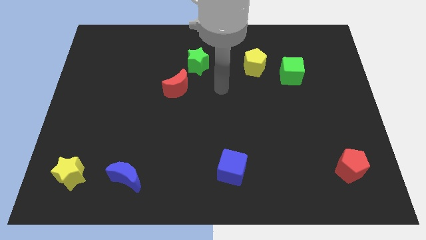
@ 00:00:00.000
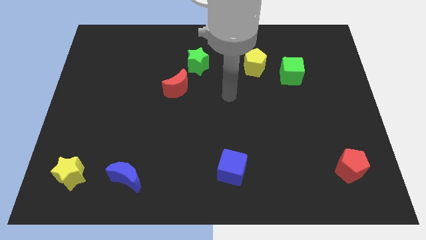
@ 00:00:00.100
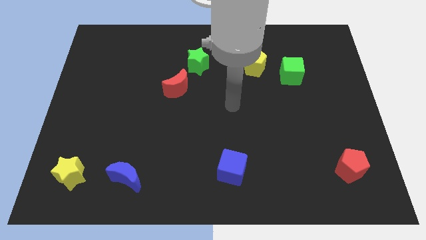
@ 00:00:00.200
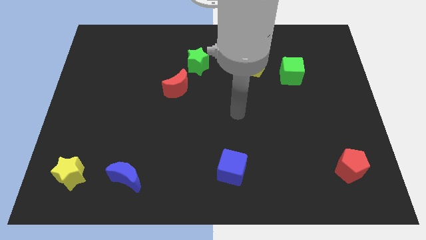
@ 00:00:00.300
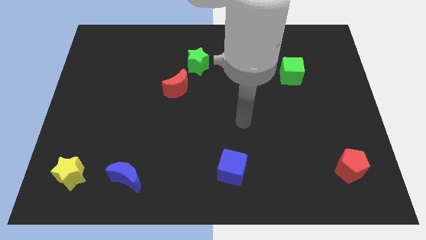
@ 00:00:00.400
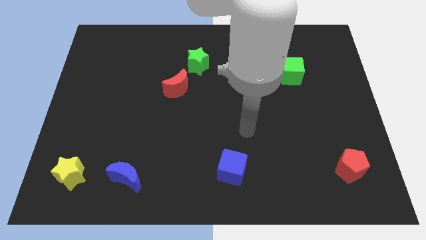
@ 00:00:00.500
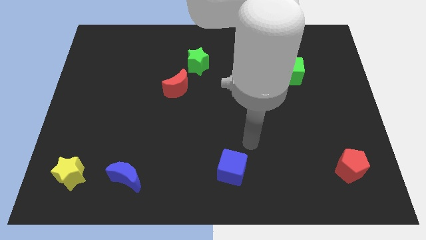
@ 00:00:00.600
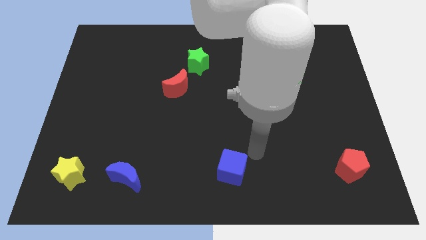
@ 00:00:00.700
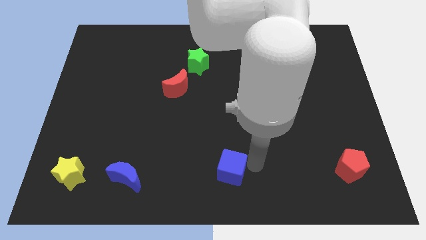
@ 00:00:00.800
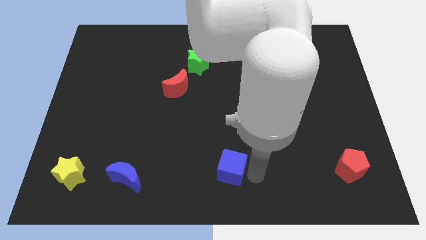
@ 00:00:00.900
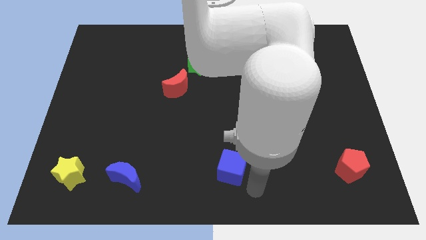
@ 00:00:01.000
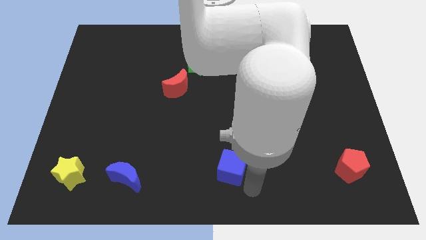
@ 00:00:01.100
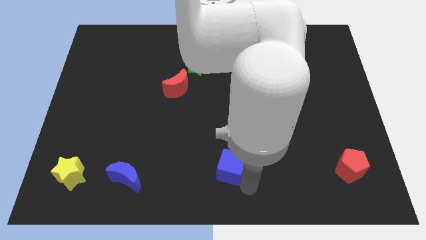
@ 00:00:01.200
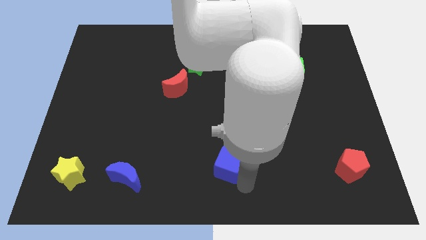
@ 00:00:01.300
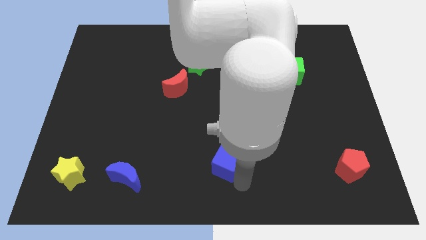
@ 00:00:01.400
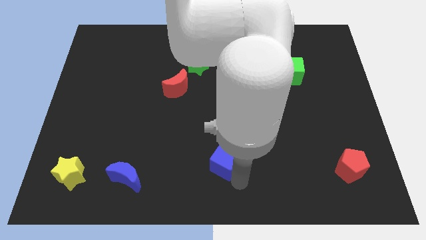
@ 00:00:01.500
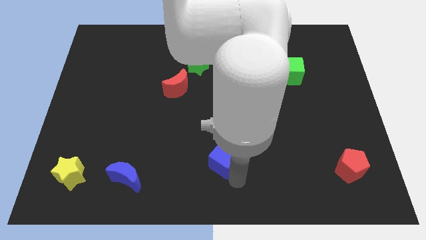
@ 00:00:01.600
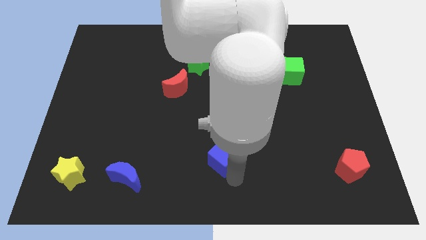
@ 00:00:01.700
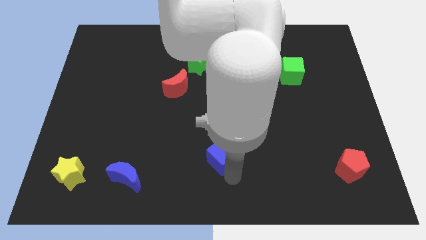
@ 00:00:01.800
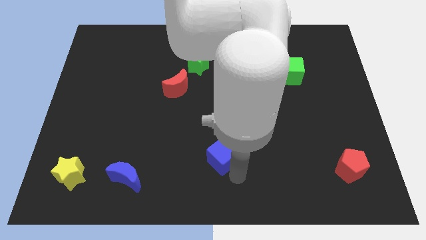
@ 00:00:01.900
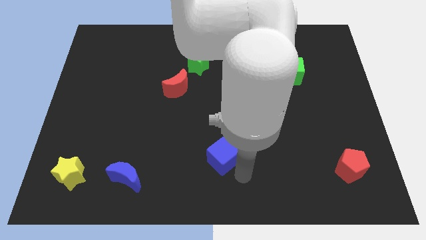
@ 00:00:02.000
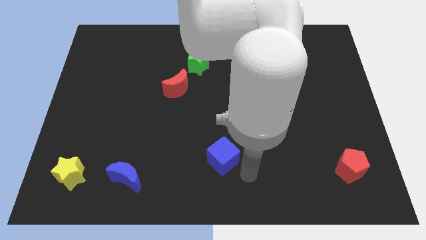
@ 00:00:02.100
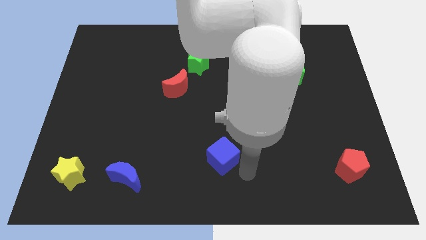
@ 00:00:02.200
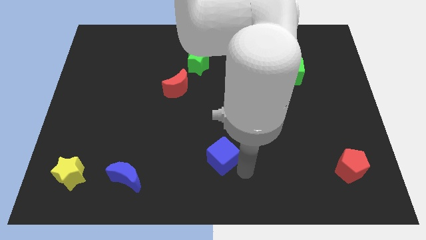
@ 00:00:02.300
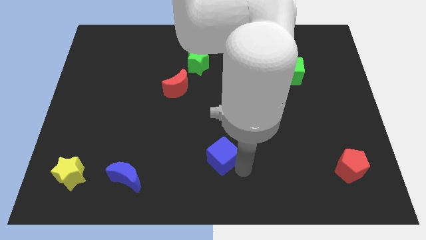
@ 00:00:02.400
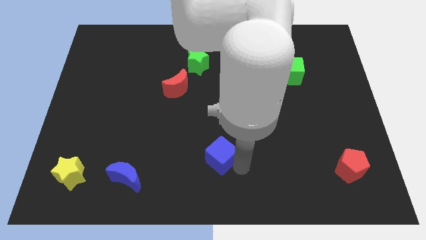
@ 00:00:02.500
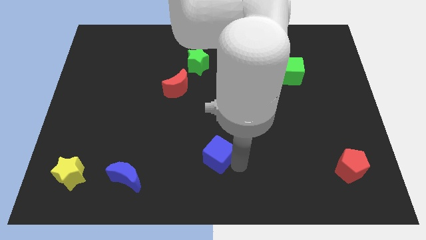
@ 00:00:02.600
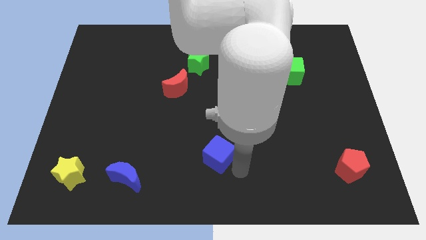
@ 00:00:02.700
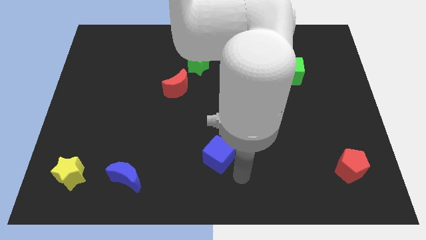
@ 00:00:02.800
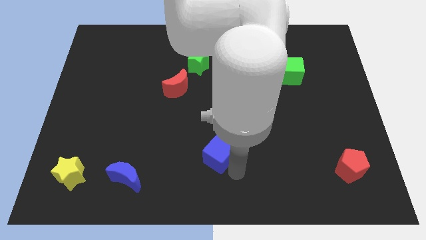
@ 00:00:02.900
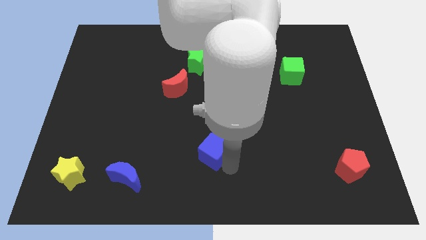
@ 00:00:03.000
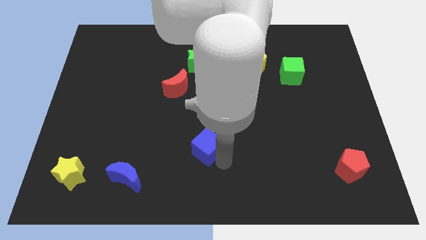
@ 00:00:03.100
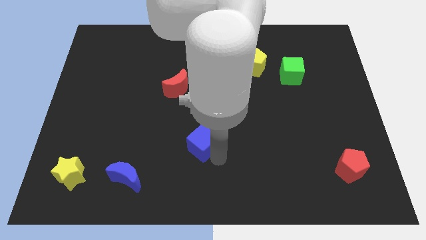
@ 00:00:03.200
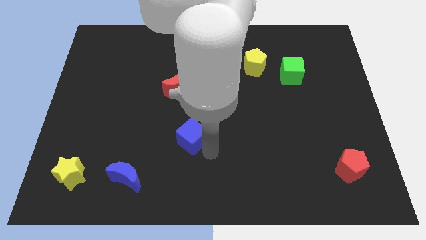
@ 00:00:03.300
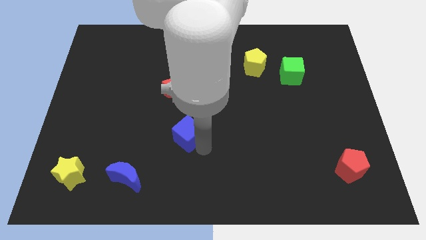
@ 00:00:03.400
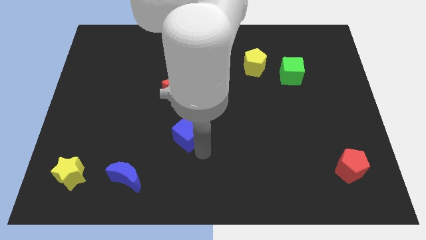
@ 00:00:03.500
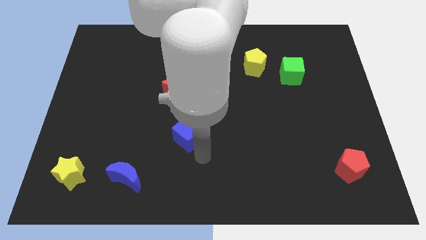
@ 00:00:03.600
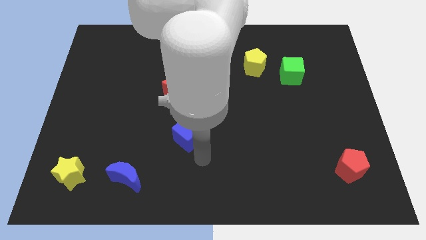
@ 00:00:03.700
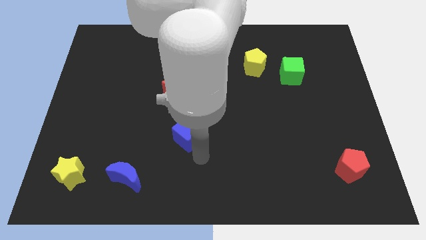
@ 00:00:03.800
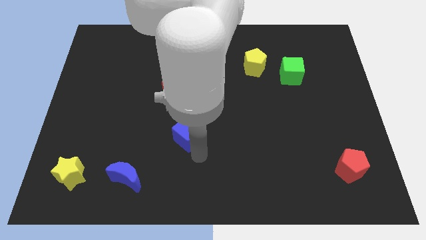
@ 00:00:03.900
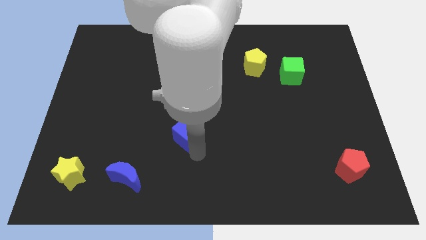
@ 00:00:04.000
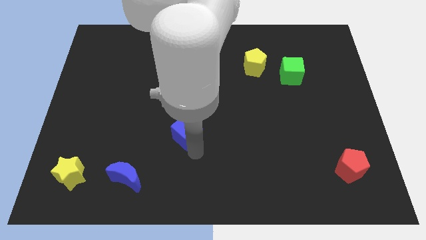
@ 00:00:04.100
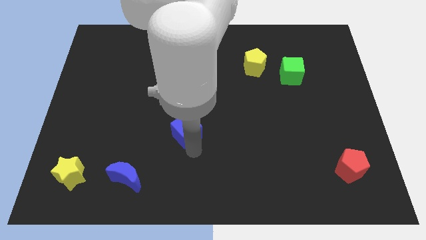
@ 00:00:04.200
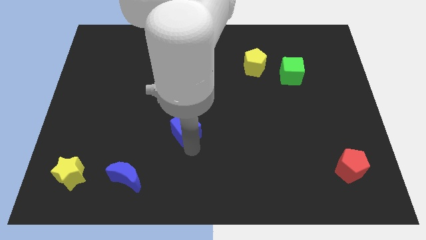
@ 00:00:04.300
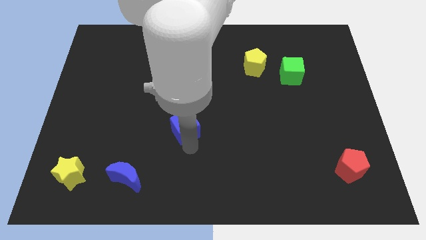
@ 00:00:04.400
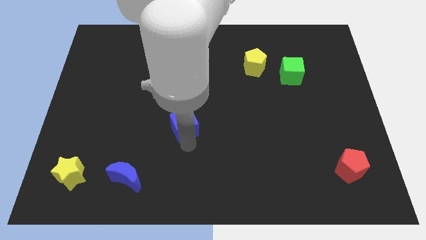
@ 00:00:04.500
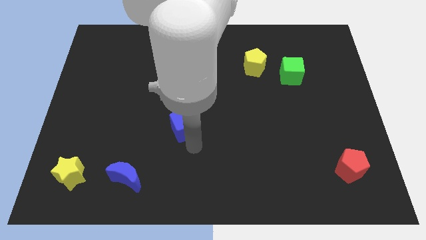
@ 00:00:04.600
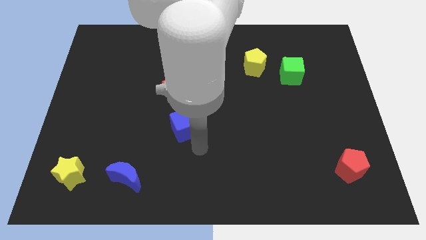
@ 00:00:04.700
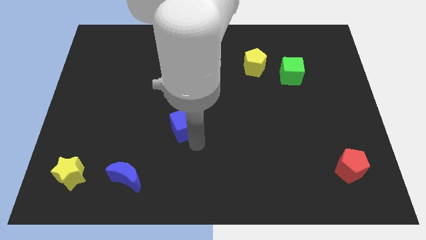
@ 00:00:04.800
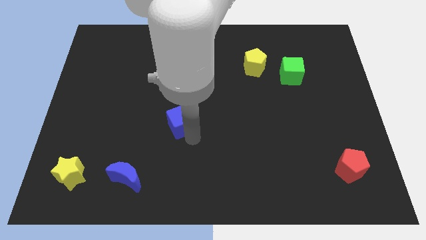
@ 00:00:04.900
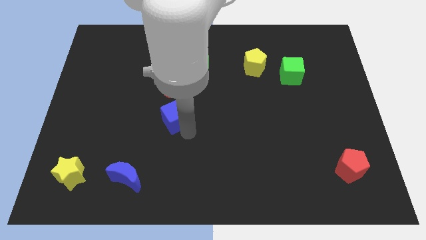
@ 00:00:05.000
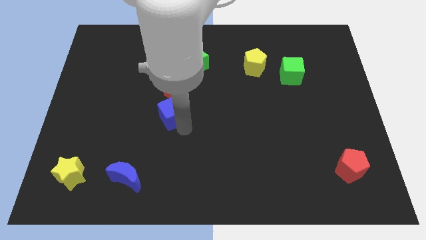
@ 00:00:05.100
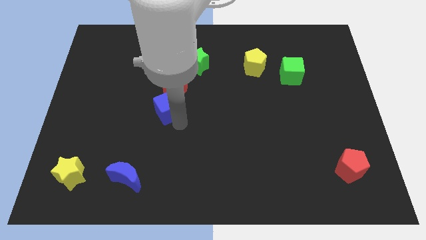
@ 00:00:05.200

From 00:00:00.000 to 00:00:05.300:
move the blue cube diagonally upwards and left

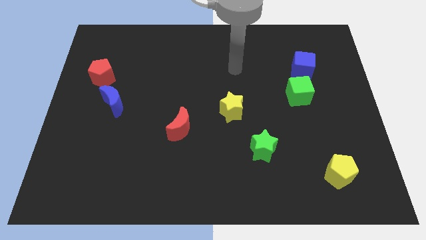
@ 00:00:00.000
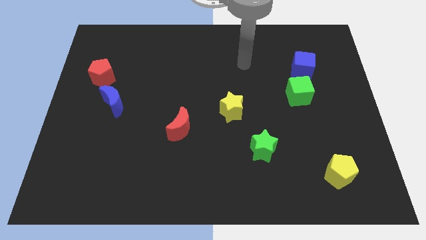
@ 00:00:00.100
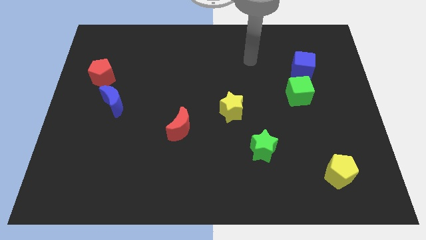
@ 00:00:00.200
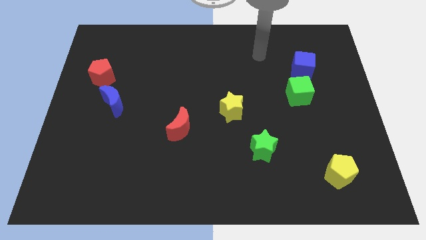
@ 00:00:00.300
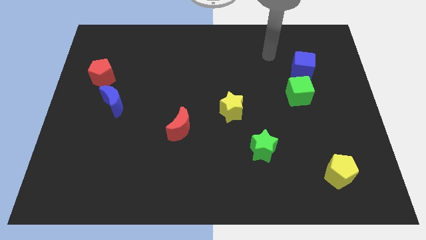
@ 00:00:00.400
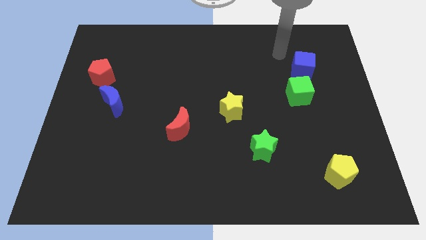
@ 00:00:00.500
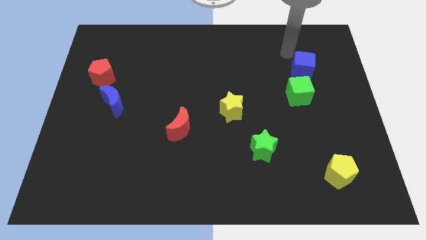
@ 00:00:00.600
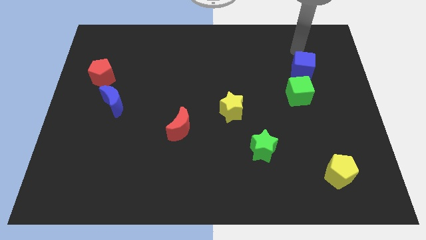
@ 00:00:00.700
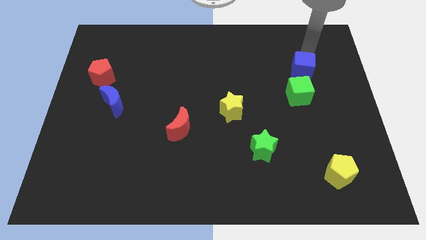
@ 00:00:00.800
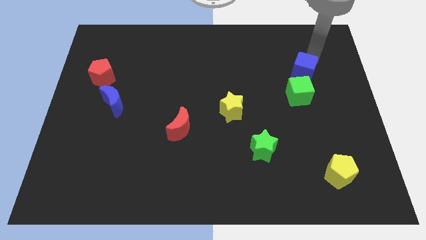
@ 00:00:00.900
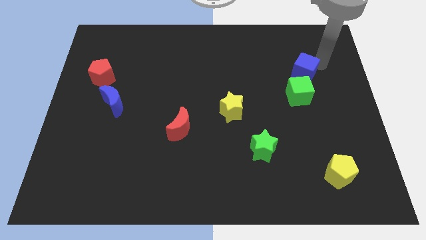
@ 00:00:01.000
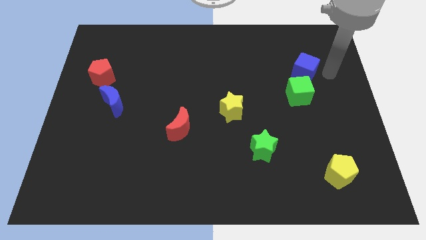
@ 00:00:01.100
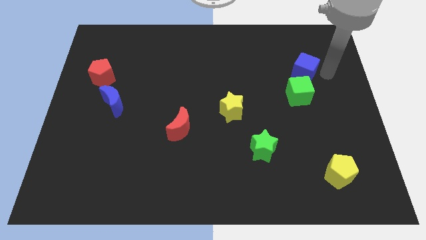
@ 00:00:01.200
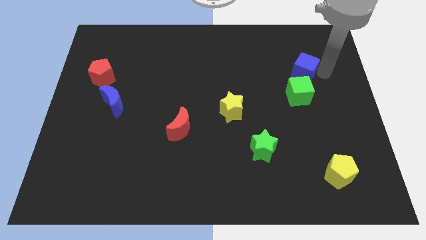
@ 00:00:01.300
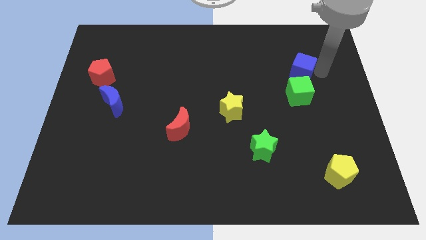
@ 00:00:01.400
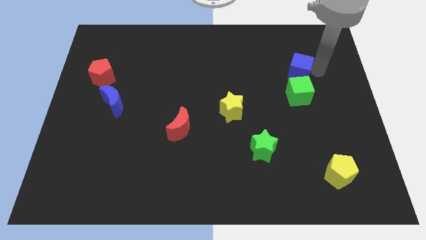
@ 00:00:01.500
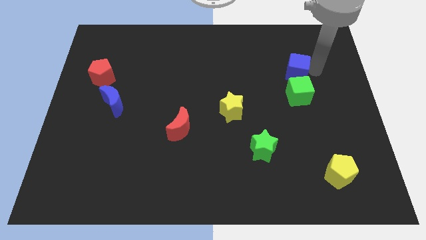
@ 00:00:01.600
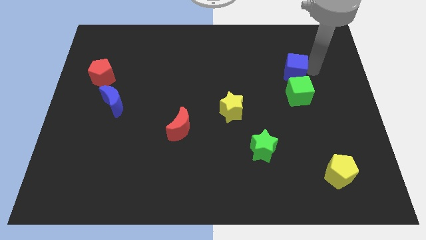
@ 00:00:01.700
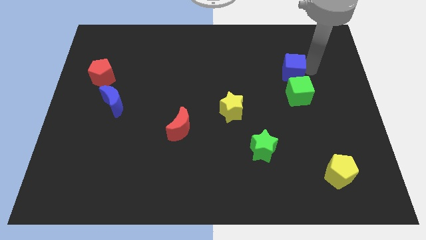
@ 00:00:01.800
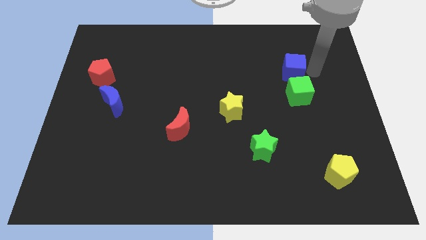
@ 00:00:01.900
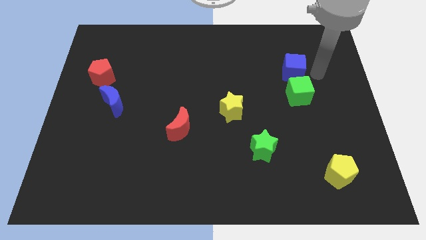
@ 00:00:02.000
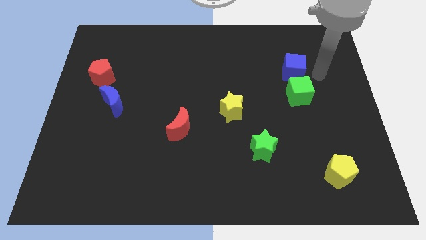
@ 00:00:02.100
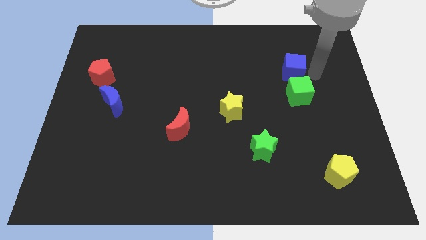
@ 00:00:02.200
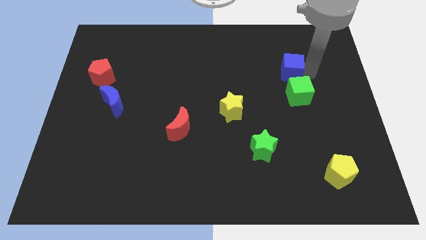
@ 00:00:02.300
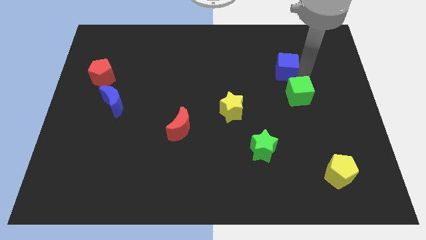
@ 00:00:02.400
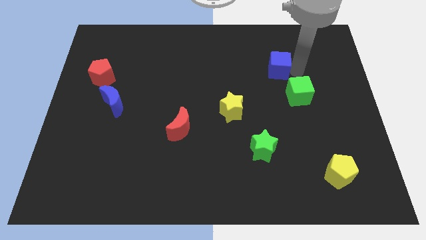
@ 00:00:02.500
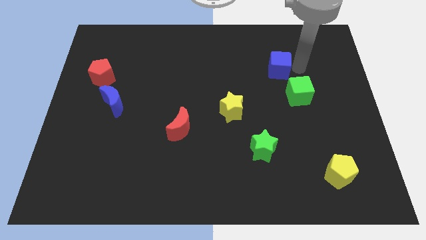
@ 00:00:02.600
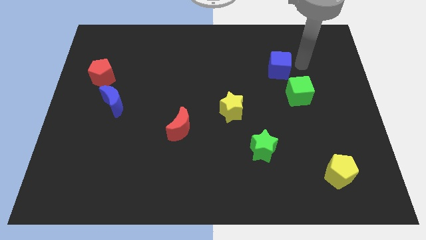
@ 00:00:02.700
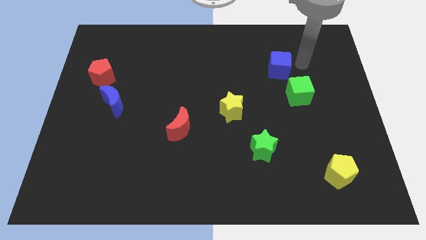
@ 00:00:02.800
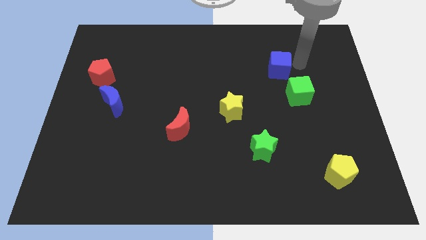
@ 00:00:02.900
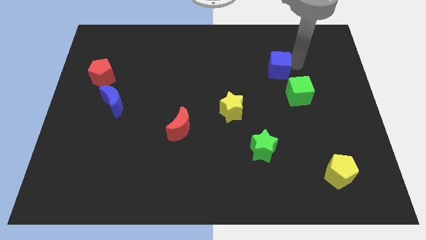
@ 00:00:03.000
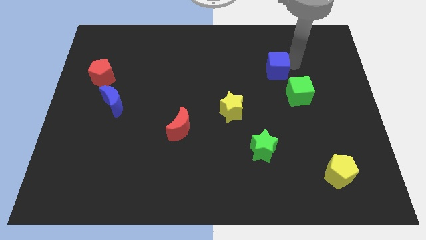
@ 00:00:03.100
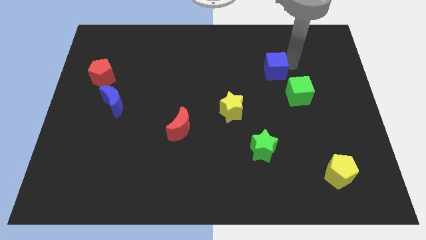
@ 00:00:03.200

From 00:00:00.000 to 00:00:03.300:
move the blue cube left a bit
